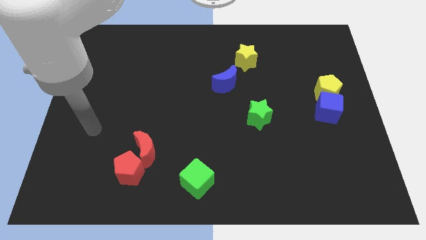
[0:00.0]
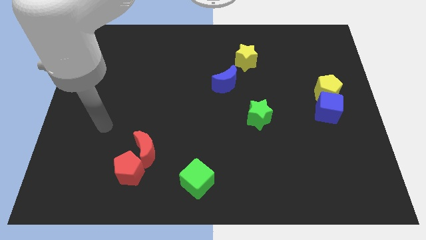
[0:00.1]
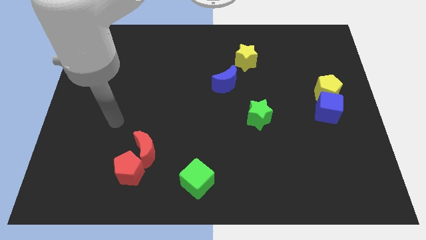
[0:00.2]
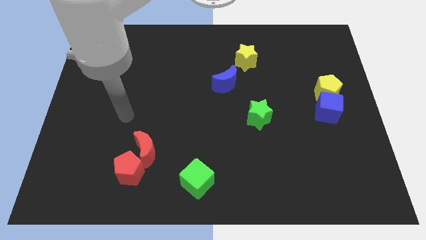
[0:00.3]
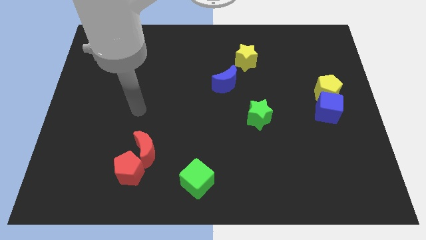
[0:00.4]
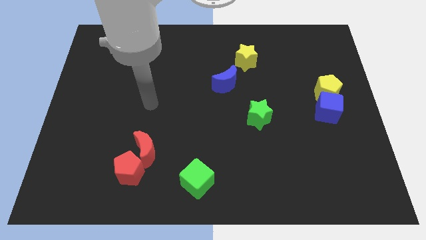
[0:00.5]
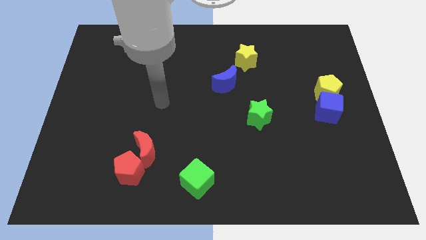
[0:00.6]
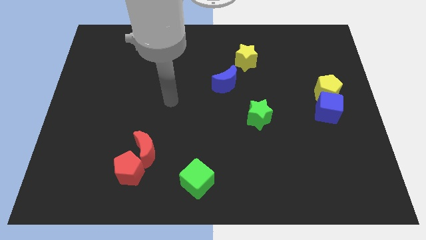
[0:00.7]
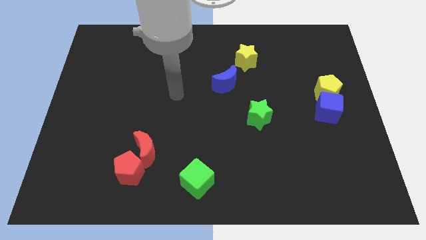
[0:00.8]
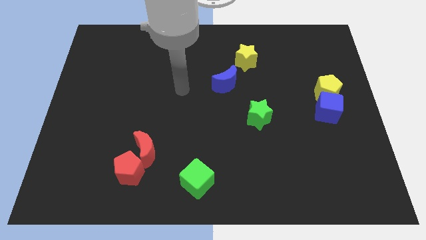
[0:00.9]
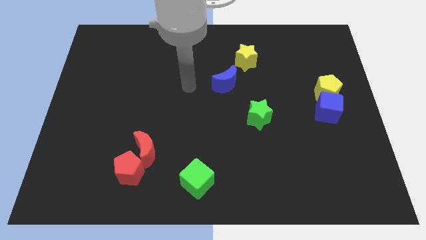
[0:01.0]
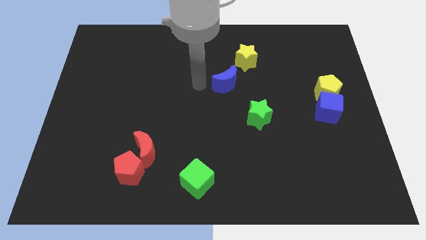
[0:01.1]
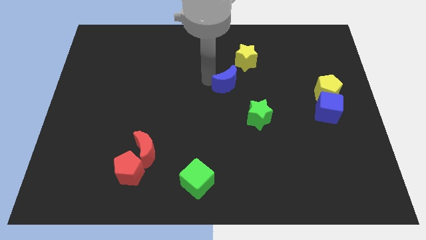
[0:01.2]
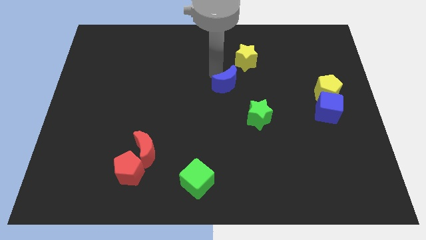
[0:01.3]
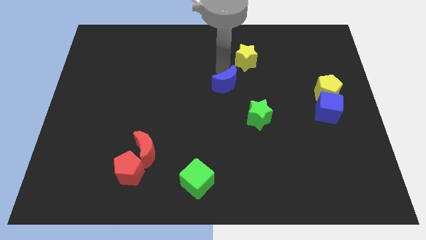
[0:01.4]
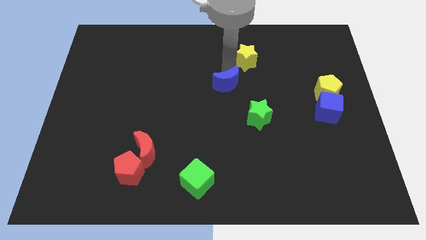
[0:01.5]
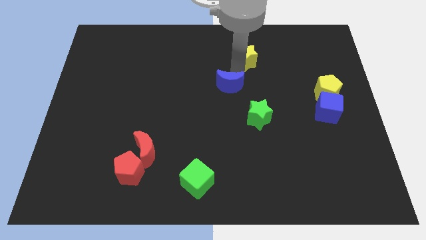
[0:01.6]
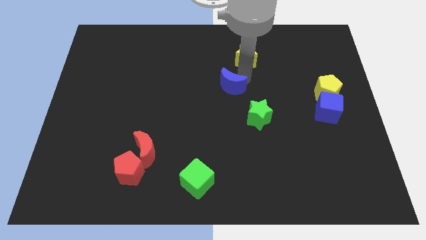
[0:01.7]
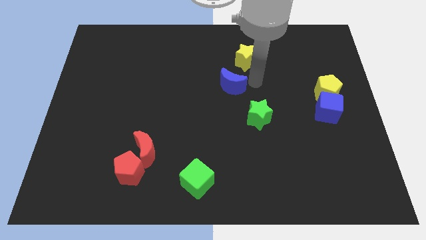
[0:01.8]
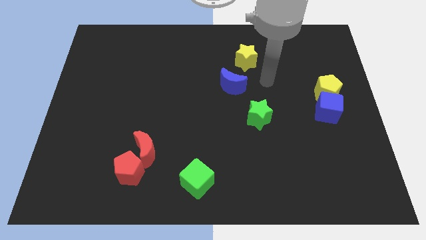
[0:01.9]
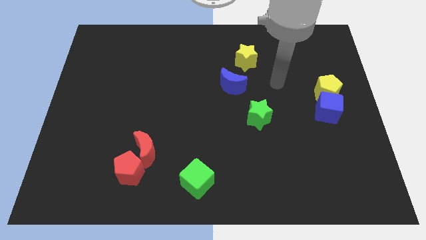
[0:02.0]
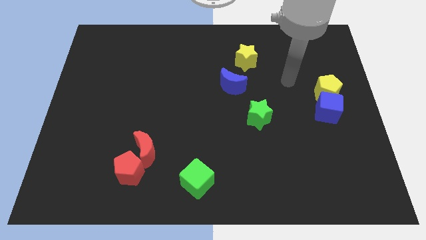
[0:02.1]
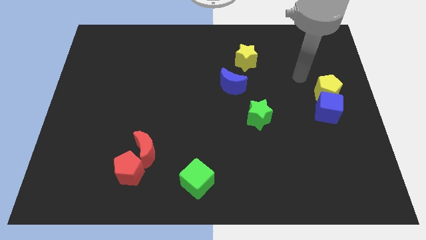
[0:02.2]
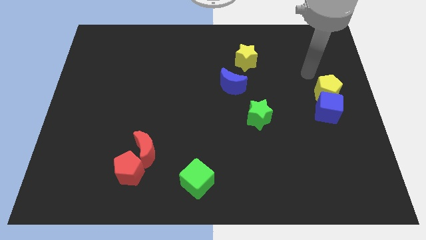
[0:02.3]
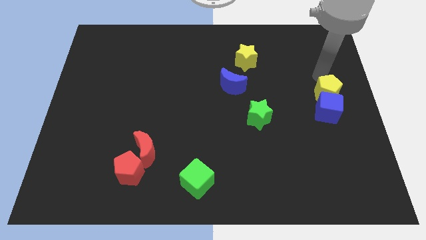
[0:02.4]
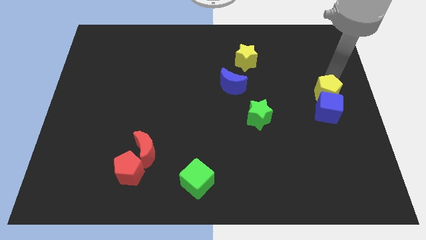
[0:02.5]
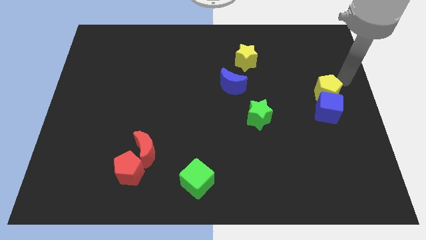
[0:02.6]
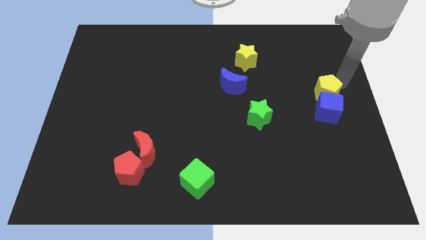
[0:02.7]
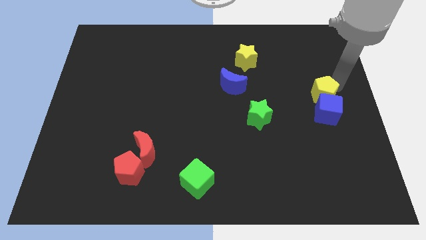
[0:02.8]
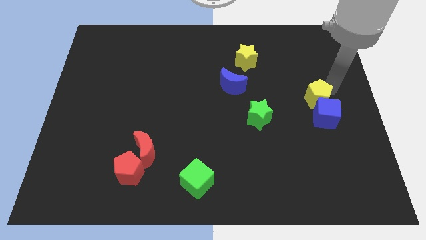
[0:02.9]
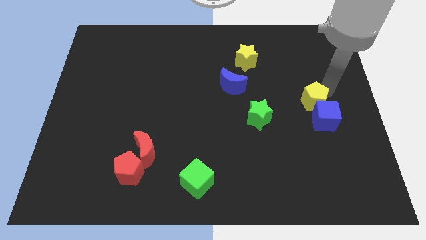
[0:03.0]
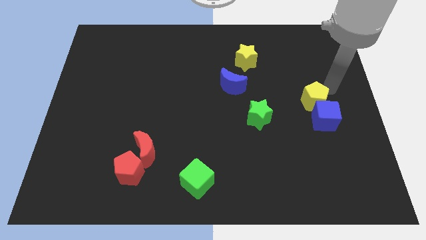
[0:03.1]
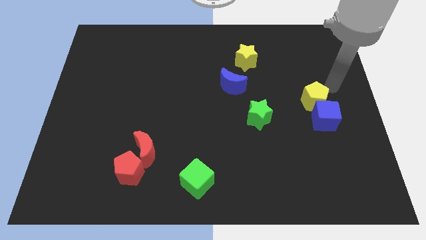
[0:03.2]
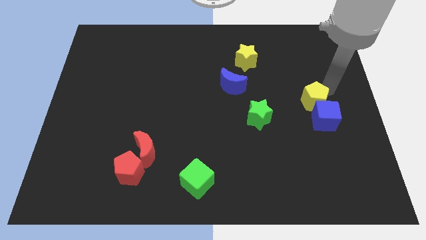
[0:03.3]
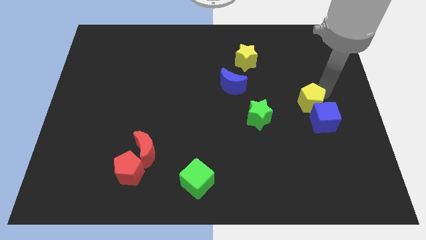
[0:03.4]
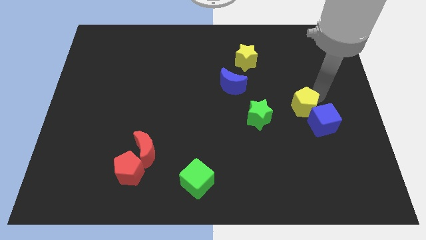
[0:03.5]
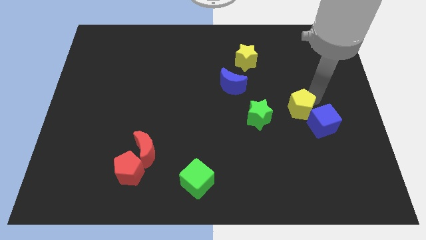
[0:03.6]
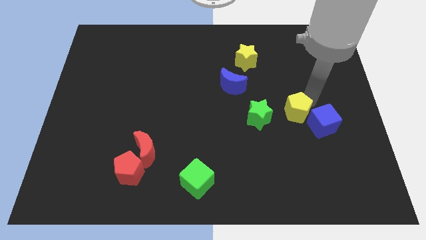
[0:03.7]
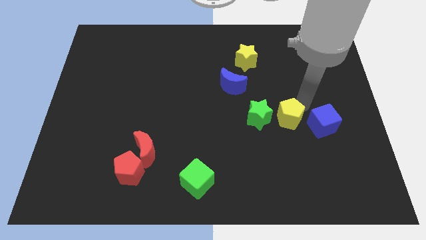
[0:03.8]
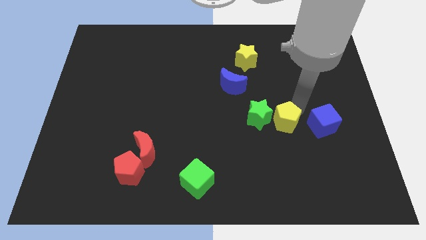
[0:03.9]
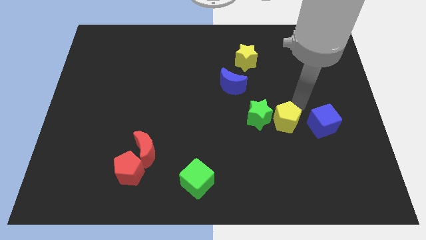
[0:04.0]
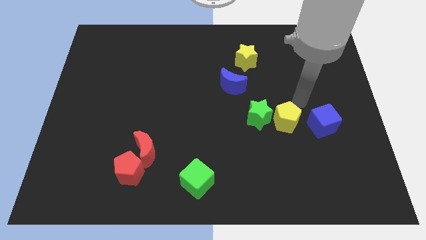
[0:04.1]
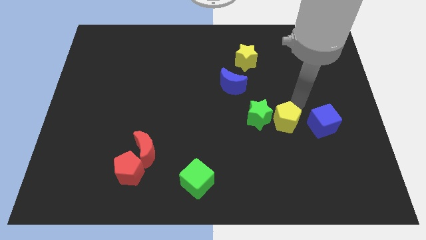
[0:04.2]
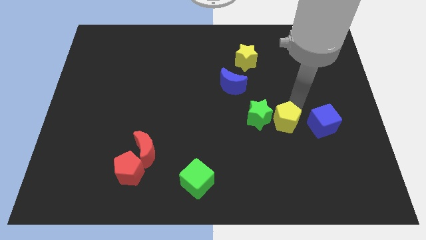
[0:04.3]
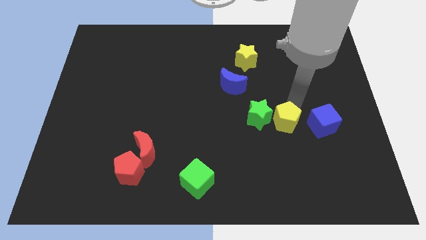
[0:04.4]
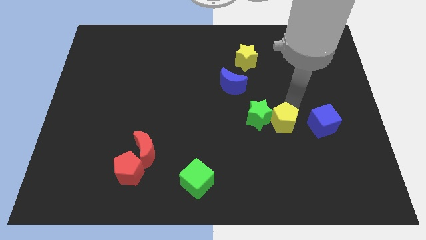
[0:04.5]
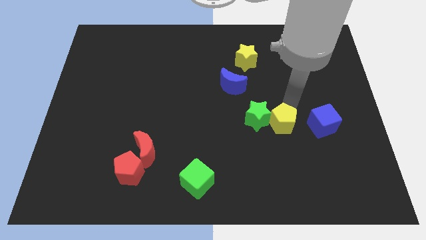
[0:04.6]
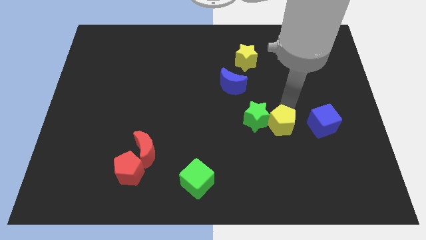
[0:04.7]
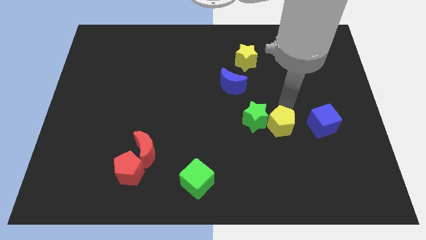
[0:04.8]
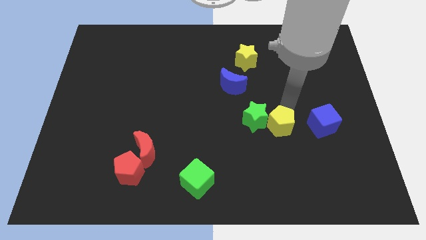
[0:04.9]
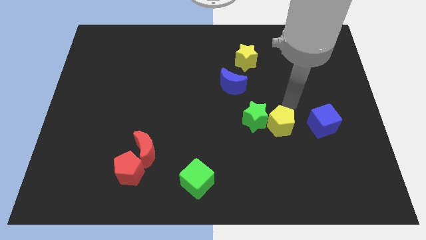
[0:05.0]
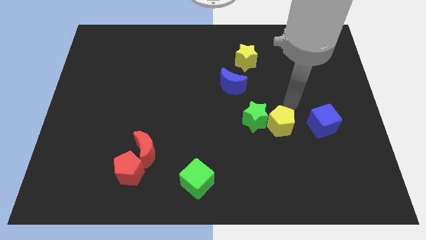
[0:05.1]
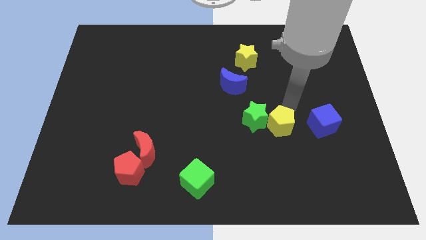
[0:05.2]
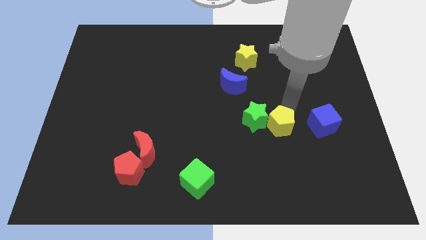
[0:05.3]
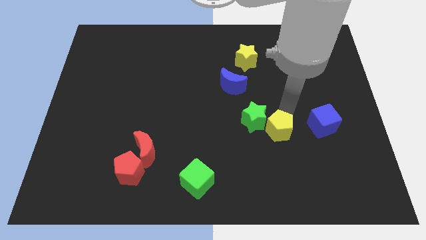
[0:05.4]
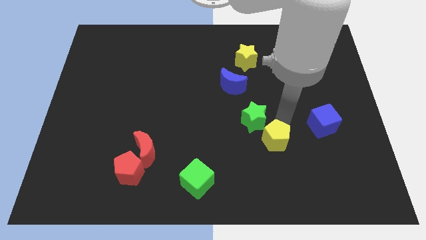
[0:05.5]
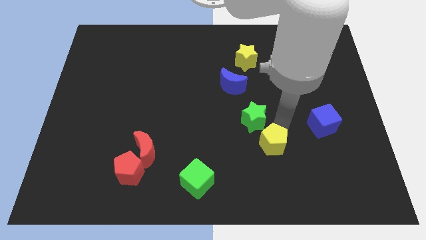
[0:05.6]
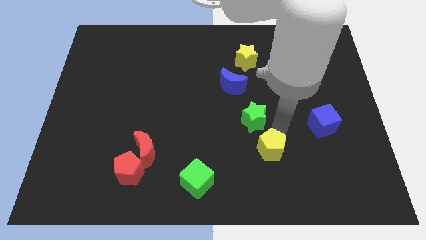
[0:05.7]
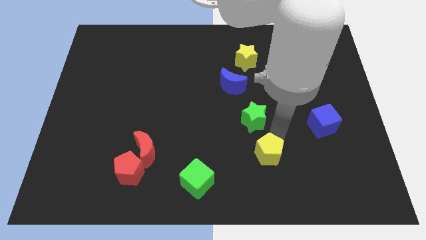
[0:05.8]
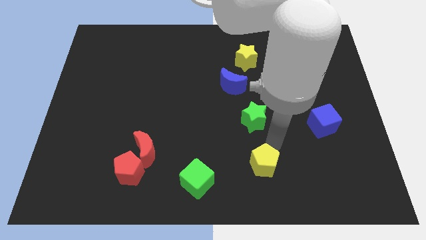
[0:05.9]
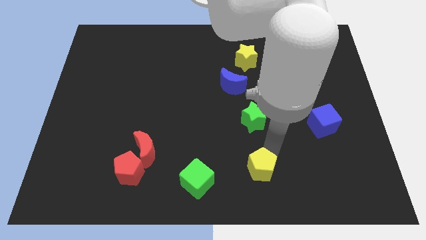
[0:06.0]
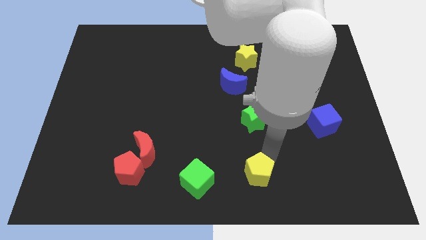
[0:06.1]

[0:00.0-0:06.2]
push the yellow pentagon to the bottom

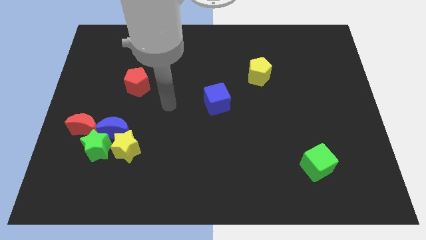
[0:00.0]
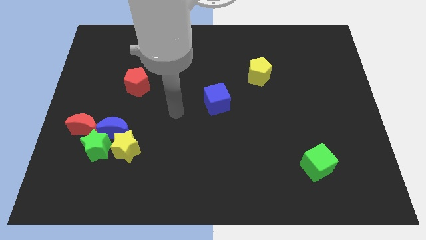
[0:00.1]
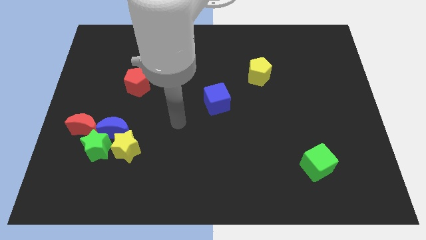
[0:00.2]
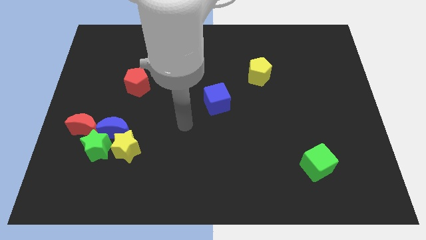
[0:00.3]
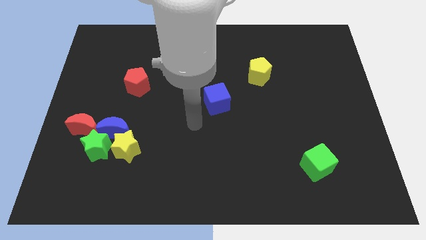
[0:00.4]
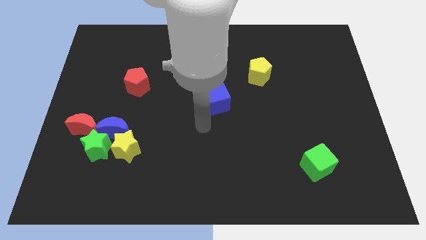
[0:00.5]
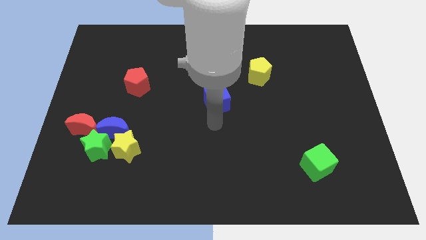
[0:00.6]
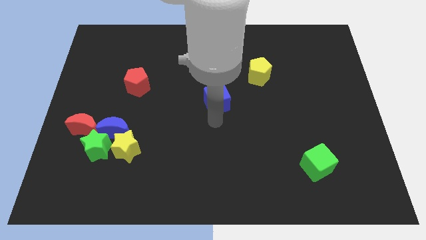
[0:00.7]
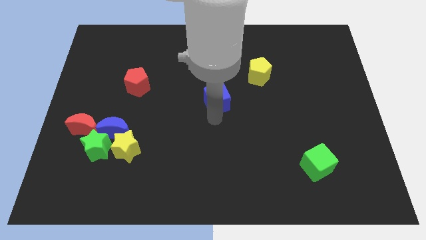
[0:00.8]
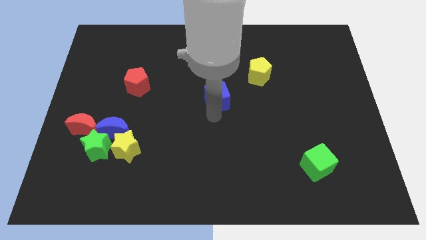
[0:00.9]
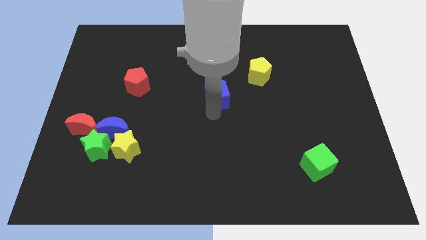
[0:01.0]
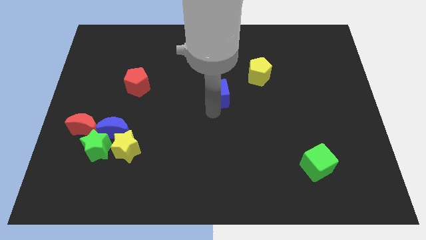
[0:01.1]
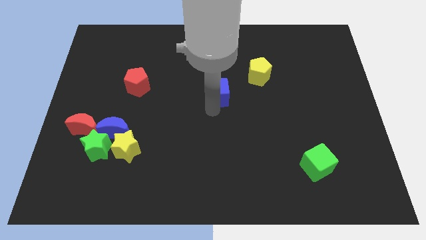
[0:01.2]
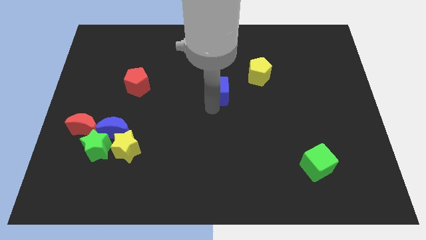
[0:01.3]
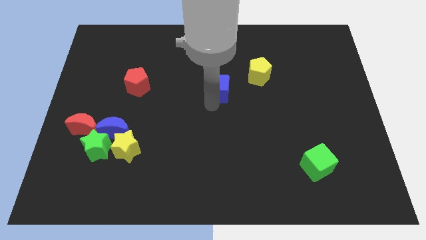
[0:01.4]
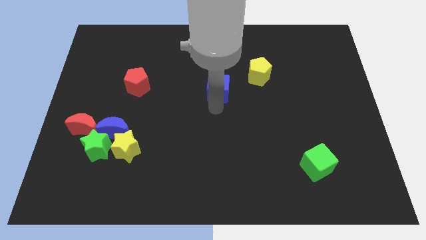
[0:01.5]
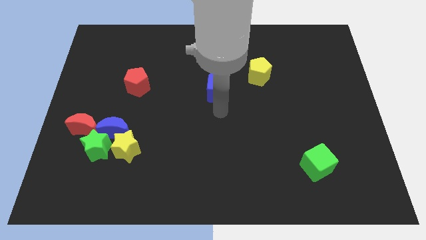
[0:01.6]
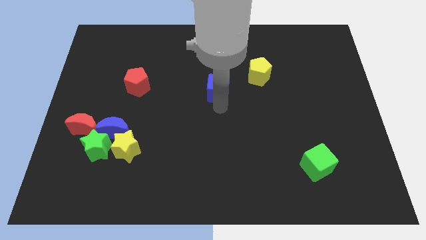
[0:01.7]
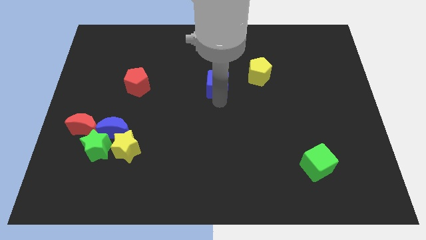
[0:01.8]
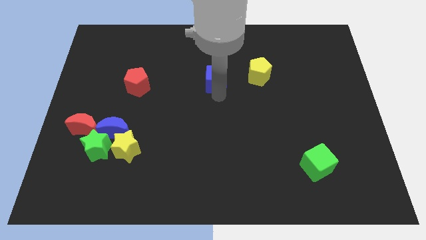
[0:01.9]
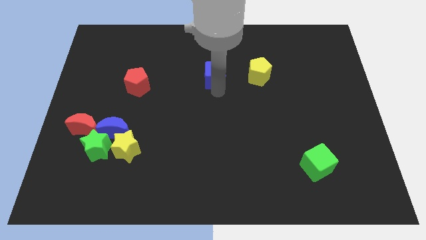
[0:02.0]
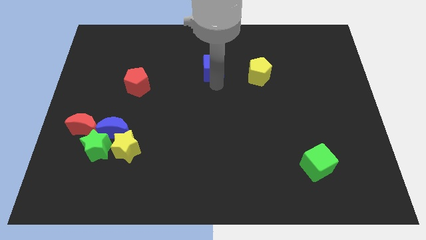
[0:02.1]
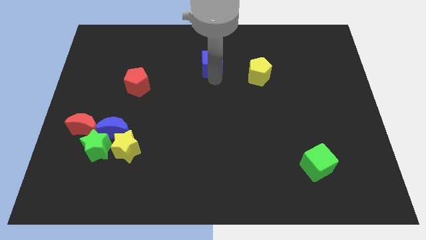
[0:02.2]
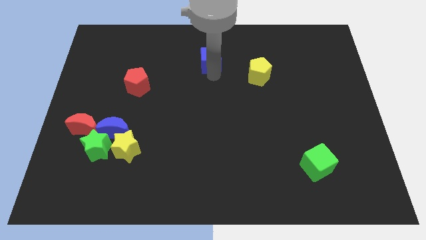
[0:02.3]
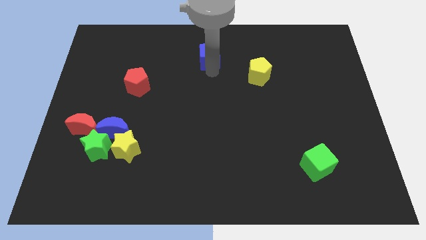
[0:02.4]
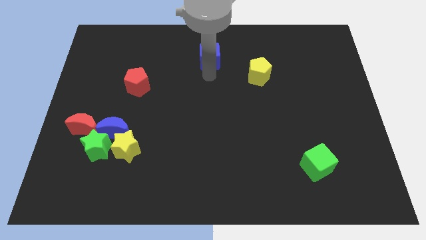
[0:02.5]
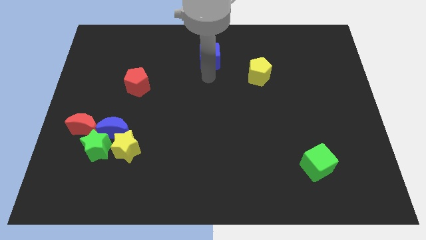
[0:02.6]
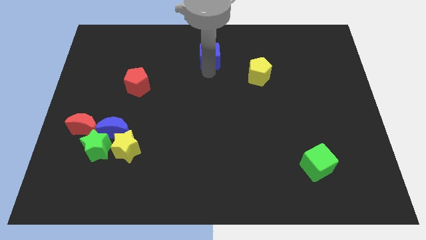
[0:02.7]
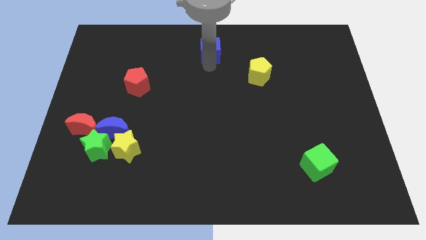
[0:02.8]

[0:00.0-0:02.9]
slide the blue cube to the top
